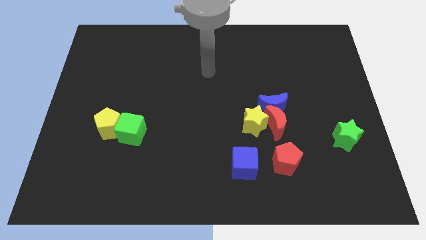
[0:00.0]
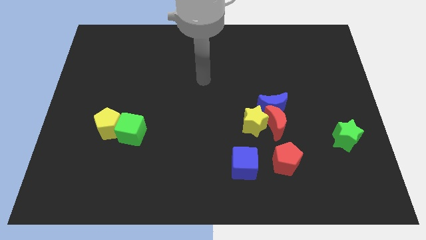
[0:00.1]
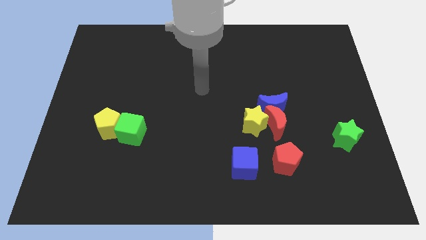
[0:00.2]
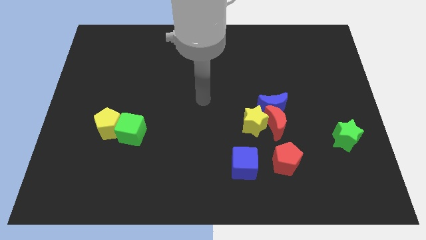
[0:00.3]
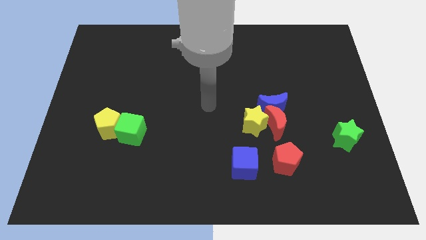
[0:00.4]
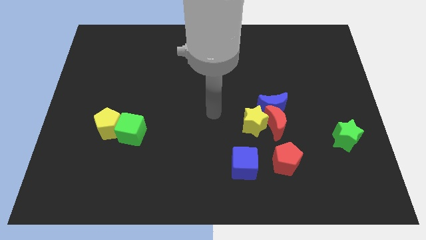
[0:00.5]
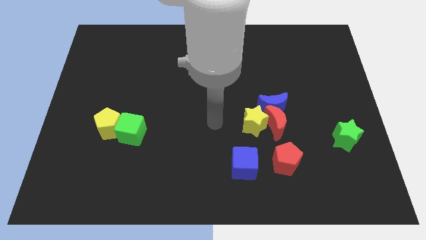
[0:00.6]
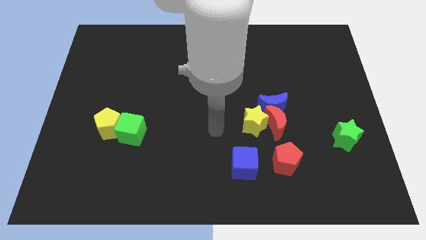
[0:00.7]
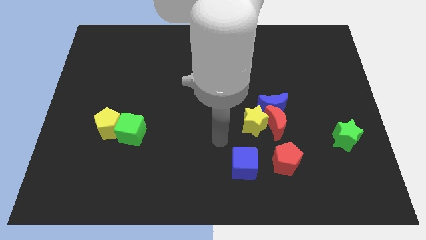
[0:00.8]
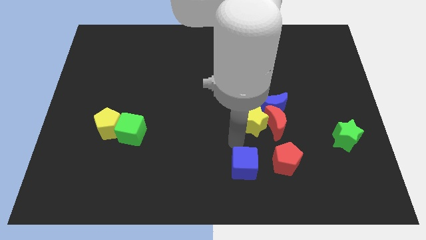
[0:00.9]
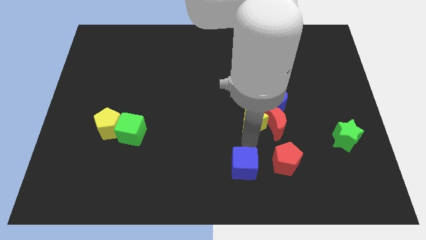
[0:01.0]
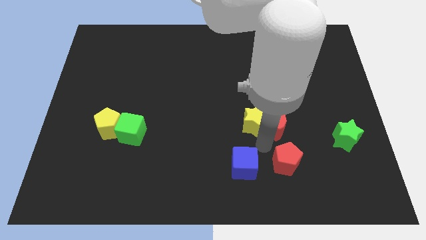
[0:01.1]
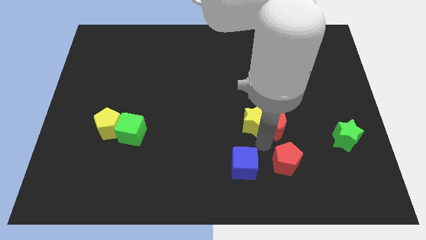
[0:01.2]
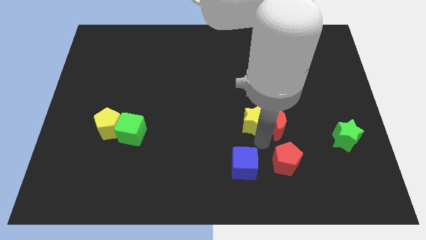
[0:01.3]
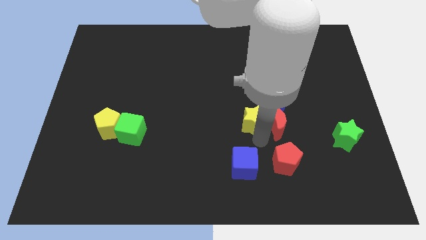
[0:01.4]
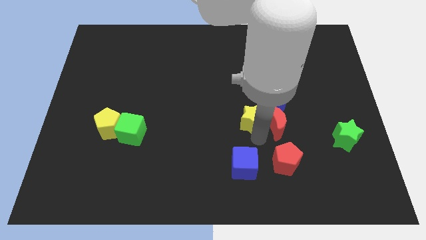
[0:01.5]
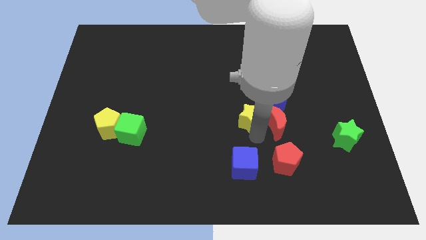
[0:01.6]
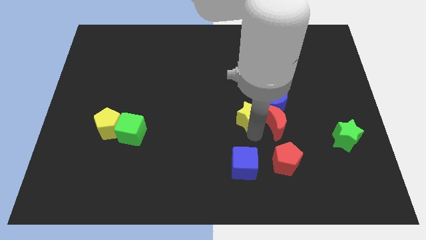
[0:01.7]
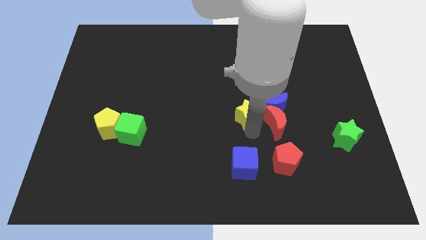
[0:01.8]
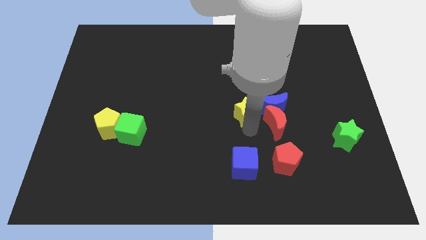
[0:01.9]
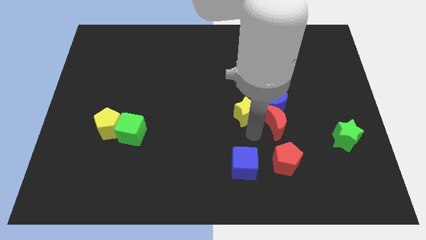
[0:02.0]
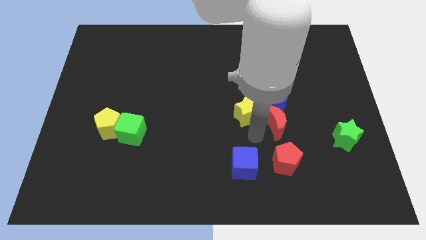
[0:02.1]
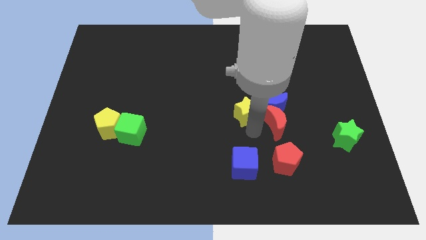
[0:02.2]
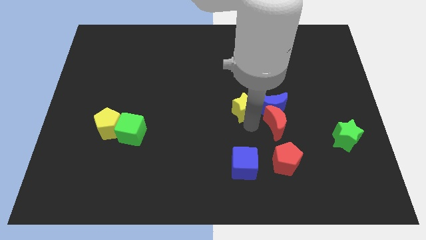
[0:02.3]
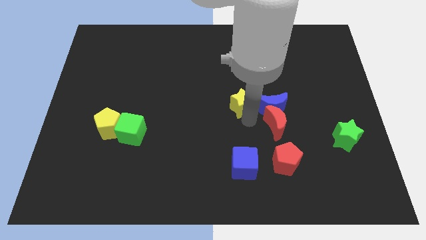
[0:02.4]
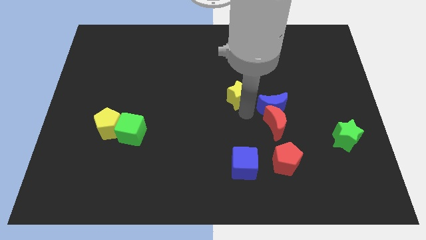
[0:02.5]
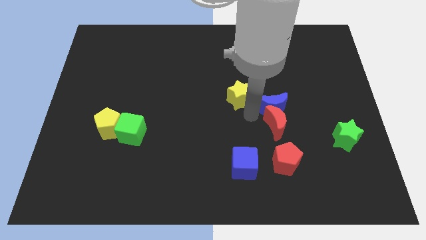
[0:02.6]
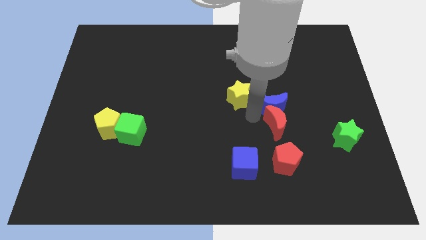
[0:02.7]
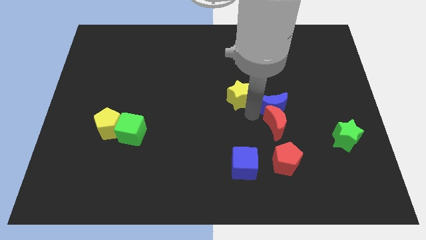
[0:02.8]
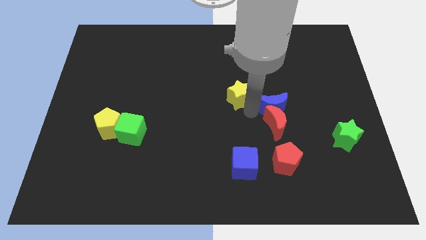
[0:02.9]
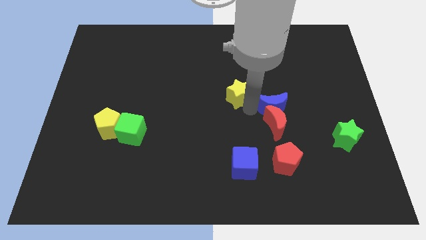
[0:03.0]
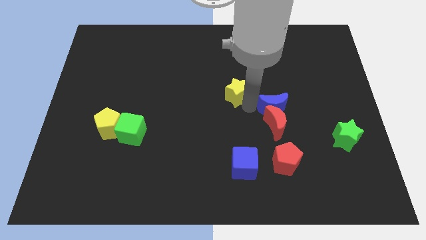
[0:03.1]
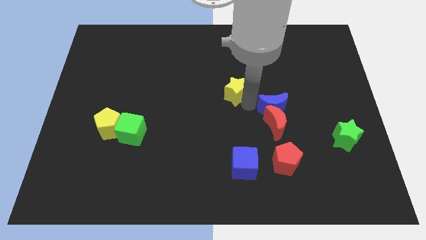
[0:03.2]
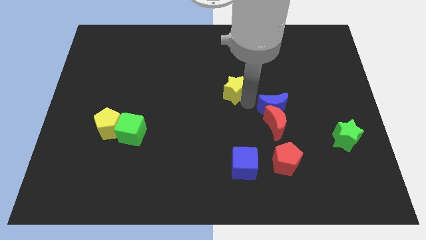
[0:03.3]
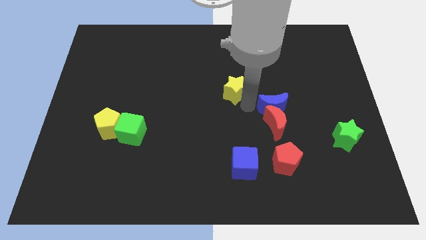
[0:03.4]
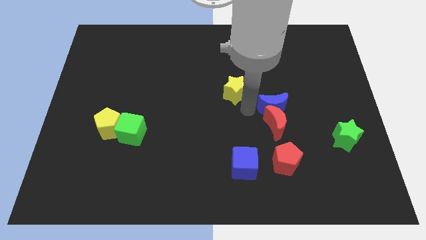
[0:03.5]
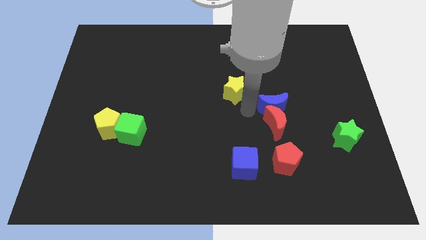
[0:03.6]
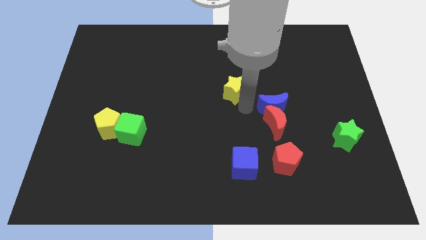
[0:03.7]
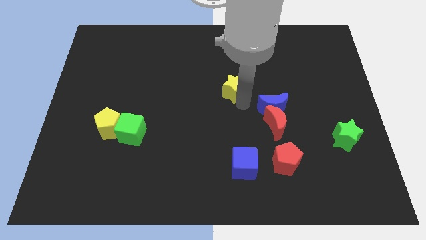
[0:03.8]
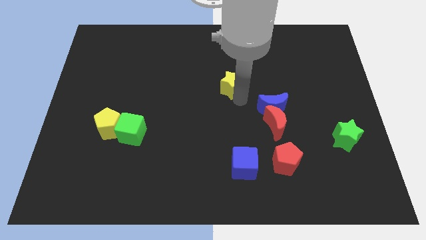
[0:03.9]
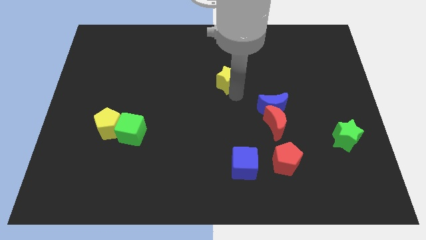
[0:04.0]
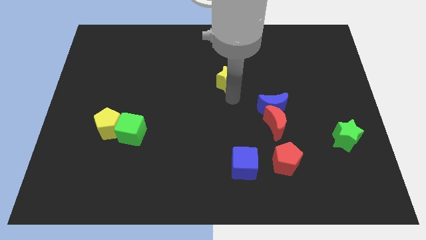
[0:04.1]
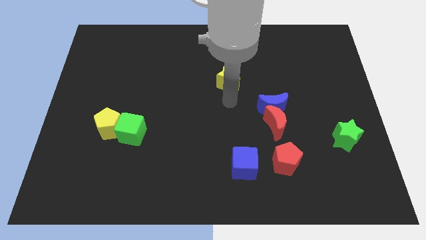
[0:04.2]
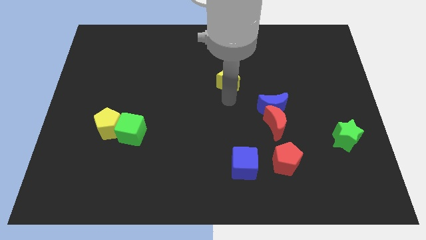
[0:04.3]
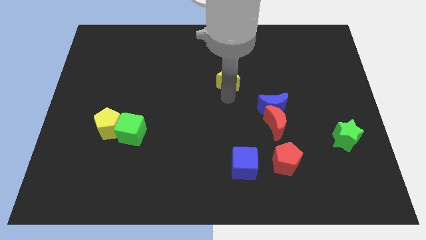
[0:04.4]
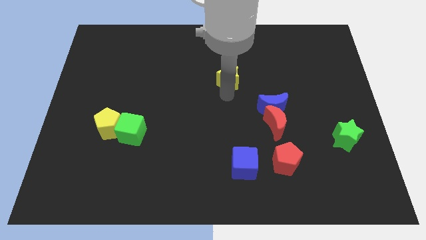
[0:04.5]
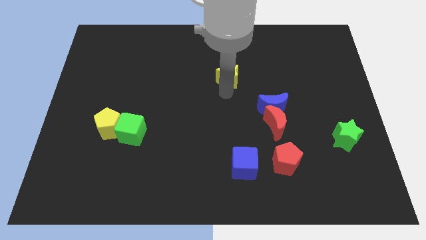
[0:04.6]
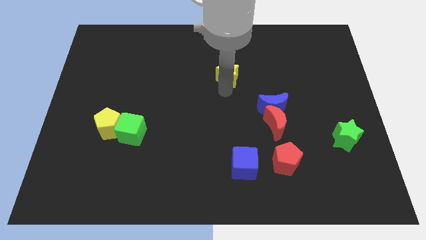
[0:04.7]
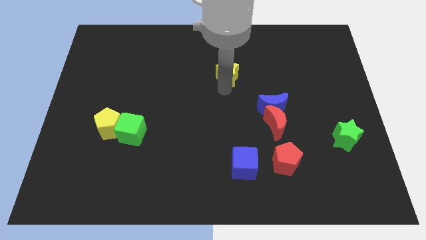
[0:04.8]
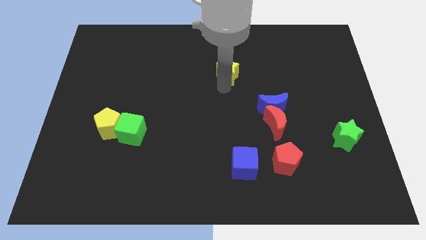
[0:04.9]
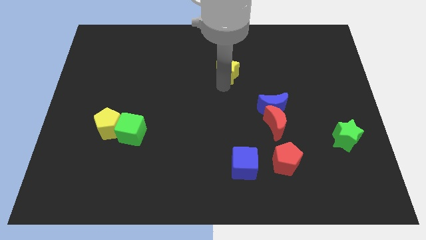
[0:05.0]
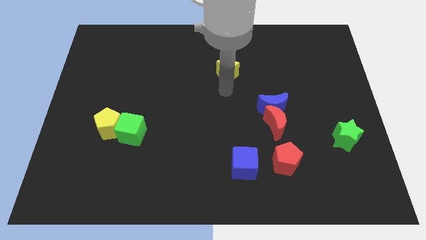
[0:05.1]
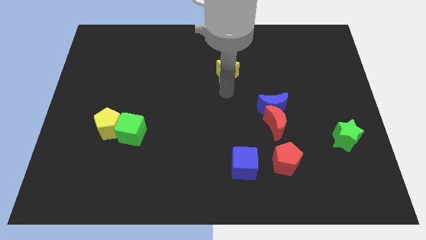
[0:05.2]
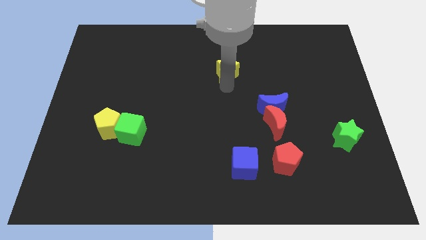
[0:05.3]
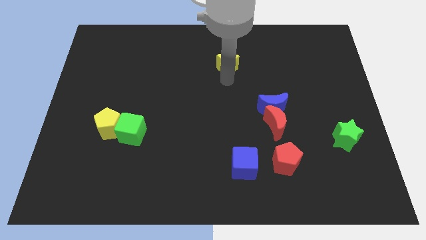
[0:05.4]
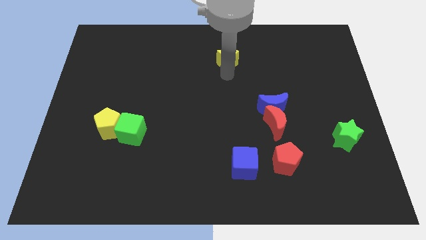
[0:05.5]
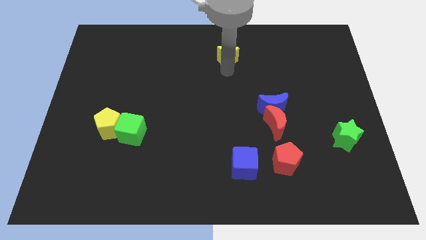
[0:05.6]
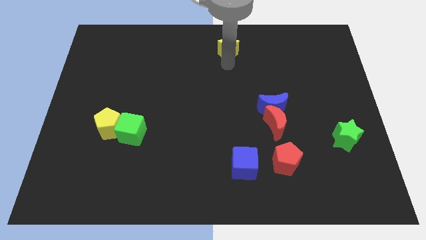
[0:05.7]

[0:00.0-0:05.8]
move the yellow star to the top

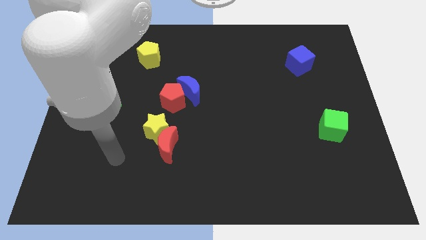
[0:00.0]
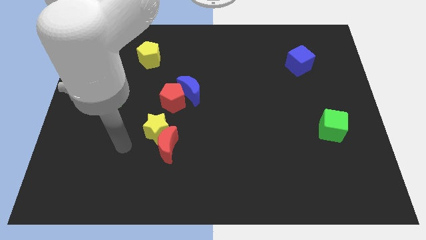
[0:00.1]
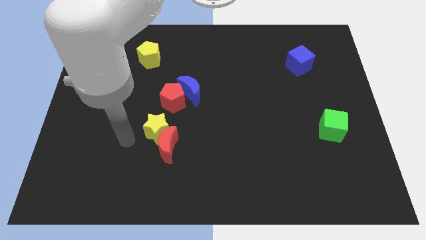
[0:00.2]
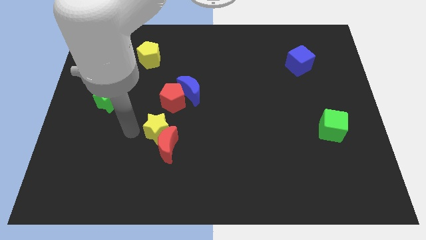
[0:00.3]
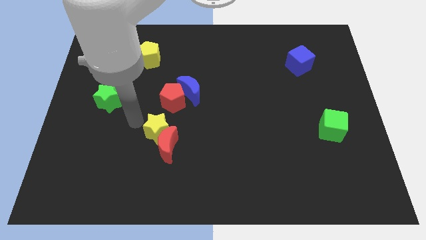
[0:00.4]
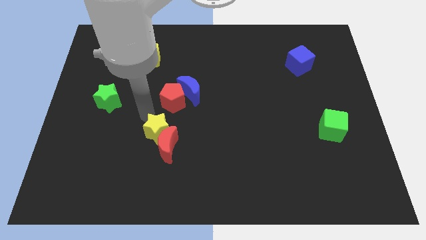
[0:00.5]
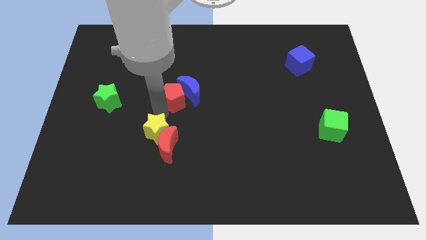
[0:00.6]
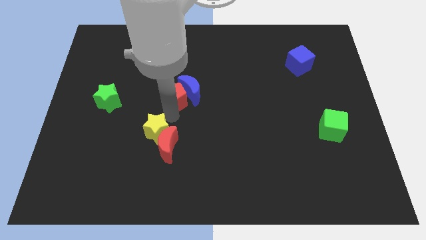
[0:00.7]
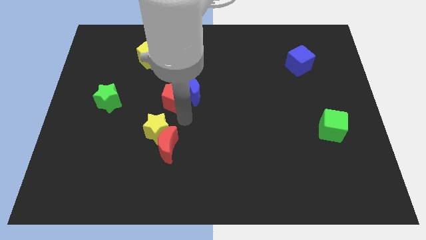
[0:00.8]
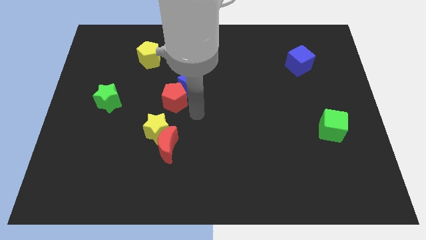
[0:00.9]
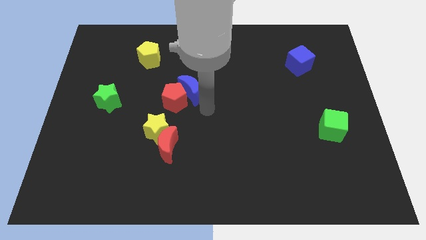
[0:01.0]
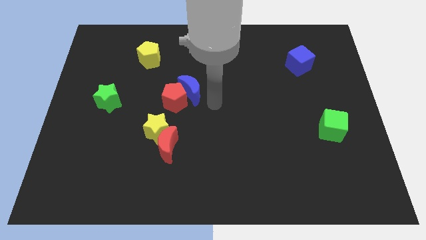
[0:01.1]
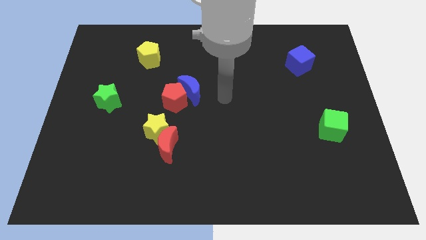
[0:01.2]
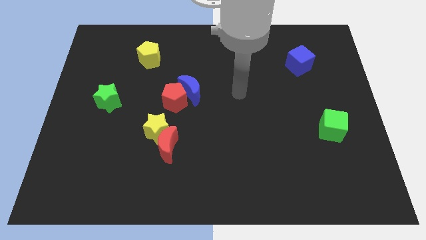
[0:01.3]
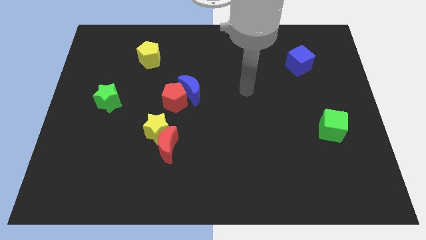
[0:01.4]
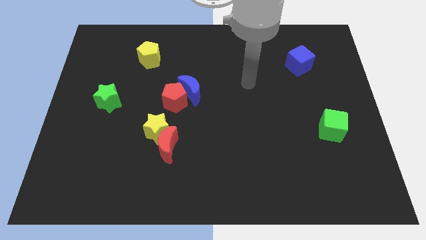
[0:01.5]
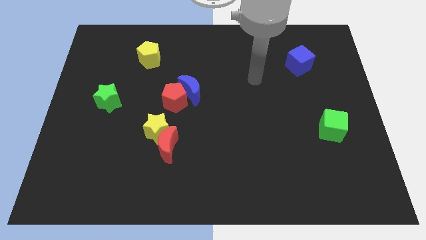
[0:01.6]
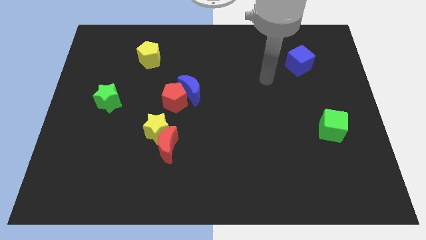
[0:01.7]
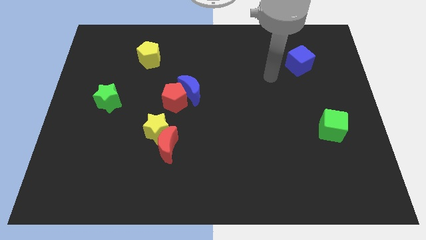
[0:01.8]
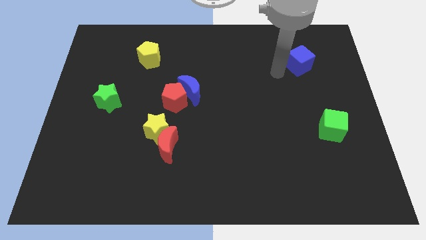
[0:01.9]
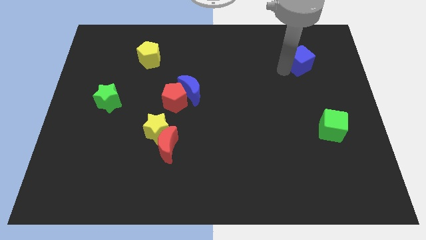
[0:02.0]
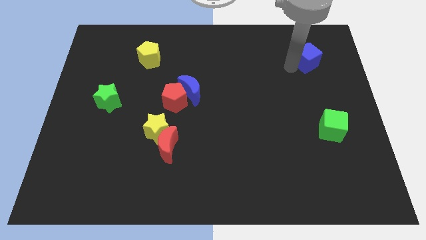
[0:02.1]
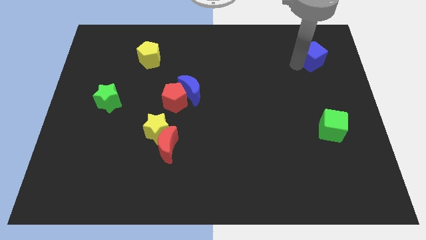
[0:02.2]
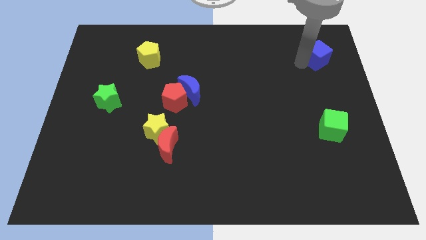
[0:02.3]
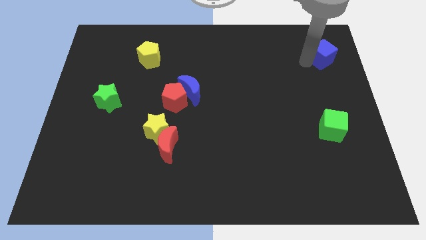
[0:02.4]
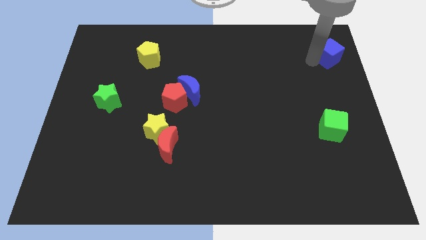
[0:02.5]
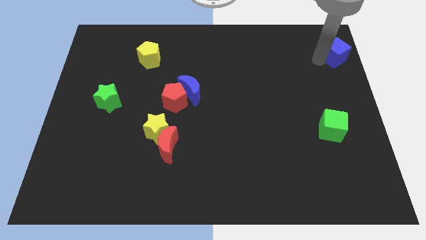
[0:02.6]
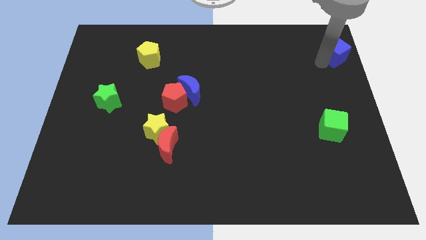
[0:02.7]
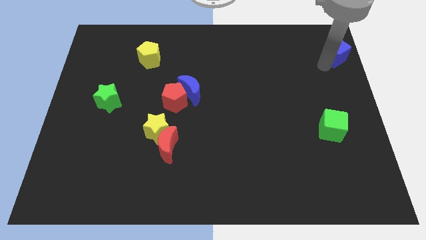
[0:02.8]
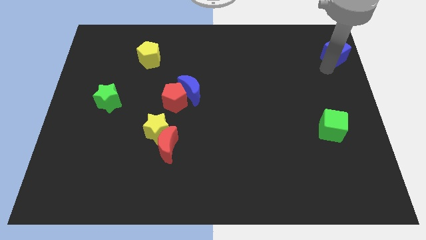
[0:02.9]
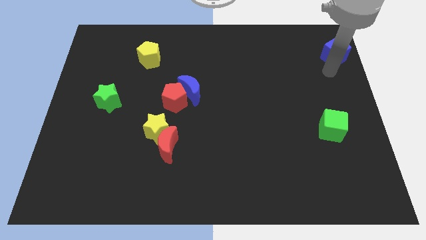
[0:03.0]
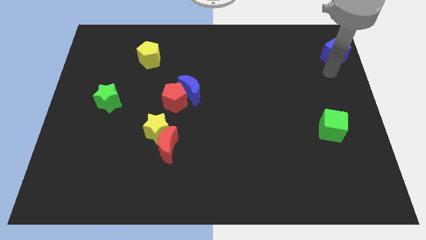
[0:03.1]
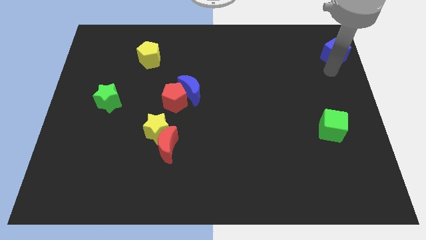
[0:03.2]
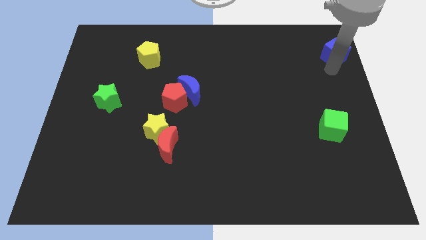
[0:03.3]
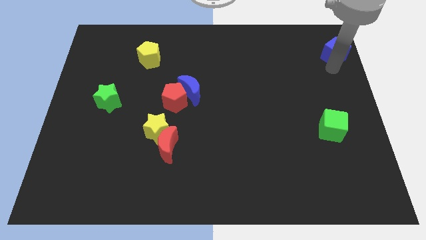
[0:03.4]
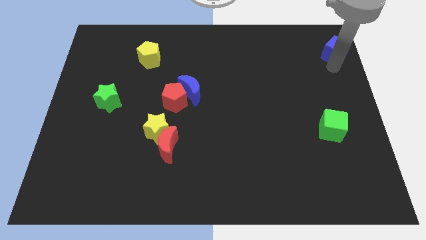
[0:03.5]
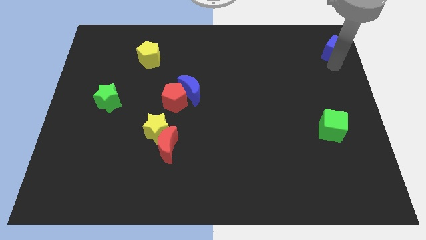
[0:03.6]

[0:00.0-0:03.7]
put the blue cube to the top right of the board
